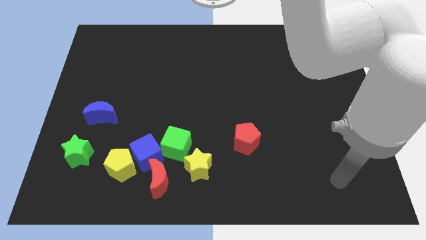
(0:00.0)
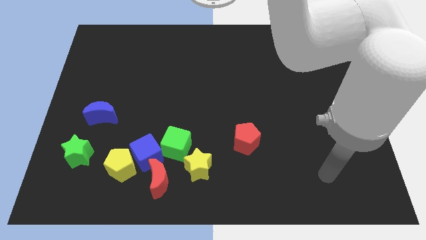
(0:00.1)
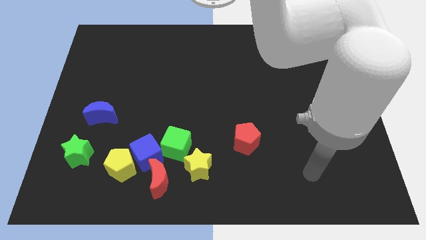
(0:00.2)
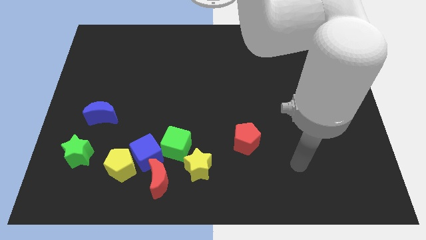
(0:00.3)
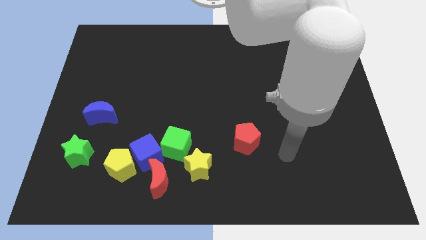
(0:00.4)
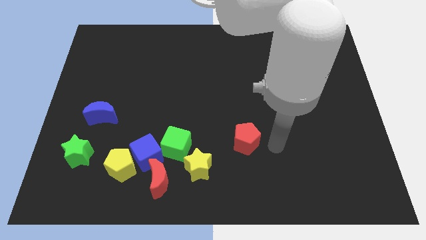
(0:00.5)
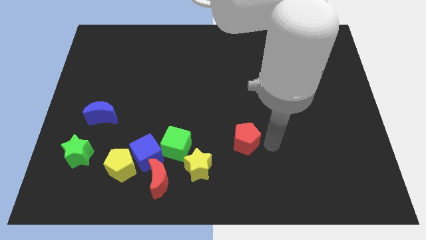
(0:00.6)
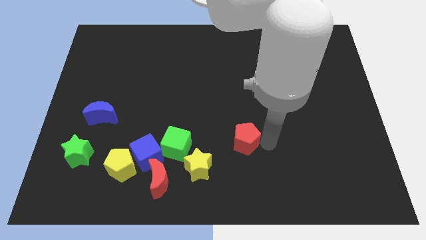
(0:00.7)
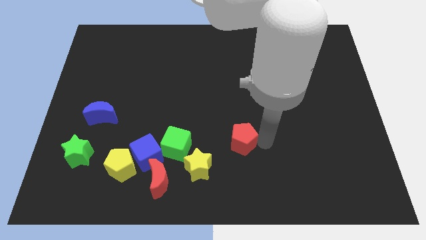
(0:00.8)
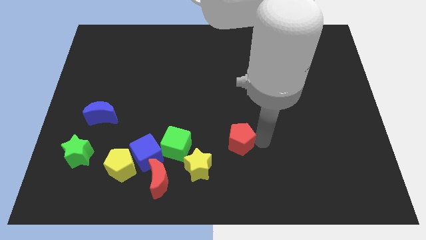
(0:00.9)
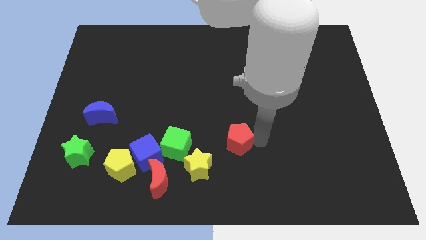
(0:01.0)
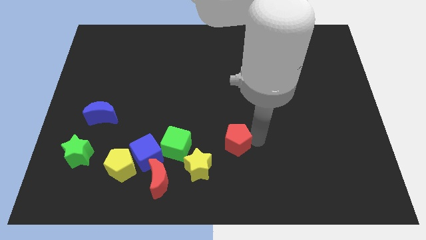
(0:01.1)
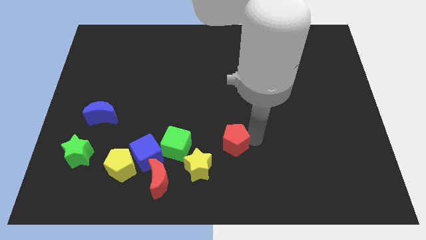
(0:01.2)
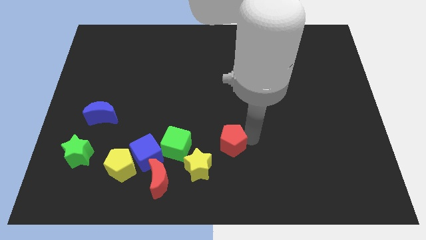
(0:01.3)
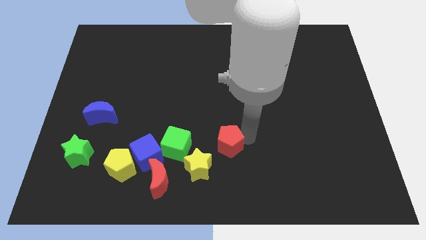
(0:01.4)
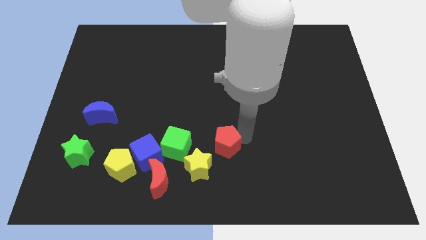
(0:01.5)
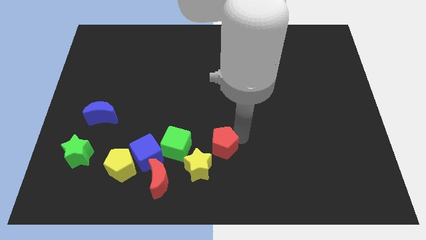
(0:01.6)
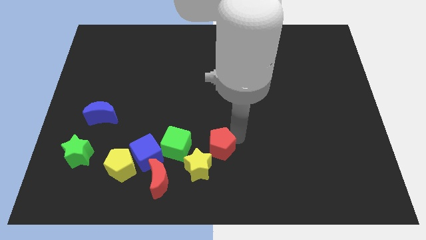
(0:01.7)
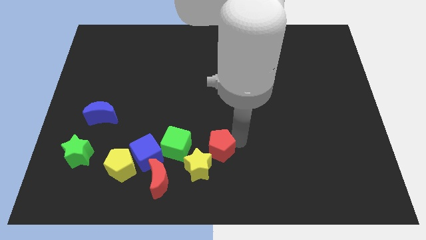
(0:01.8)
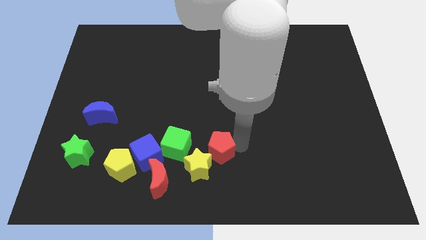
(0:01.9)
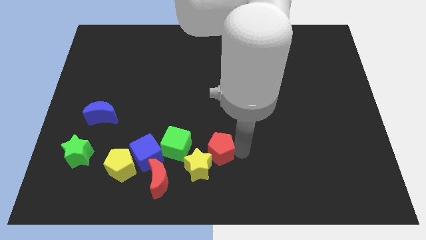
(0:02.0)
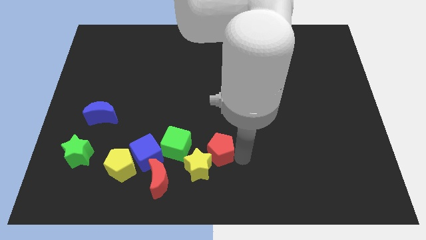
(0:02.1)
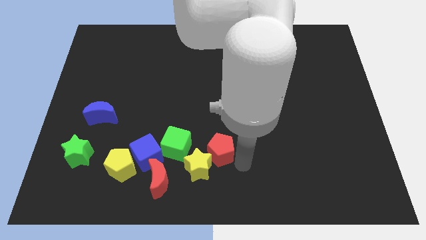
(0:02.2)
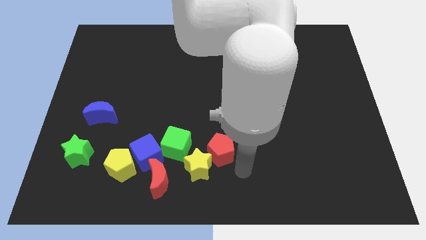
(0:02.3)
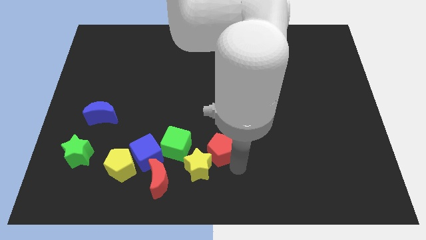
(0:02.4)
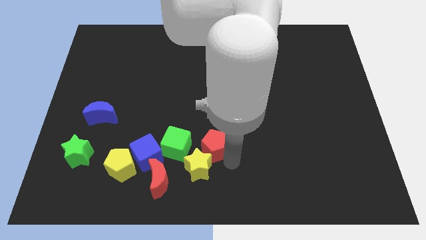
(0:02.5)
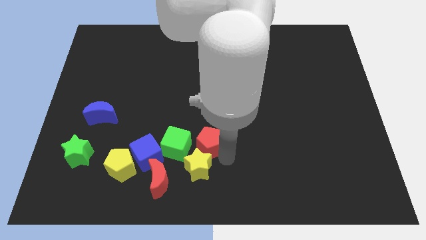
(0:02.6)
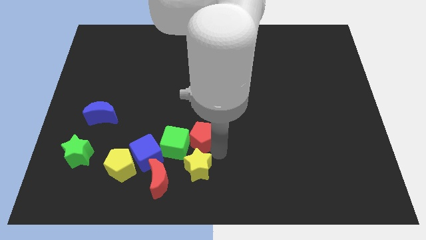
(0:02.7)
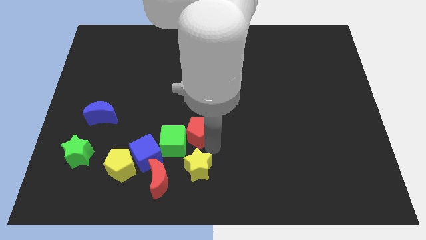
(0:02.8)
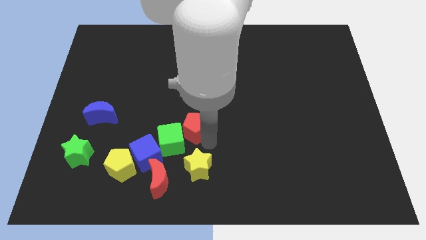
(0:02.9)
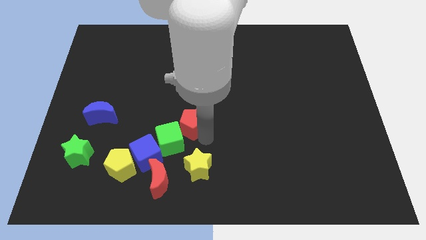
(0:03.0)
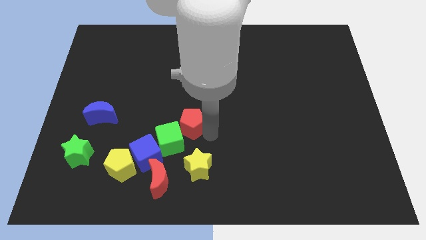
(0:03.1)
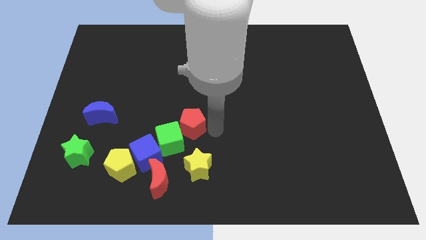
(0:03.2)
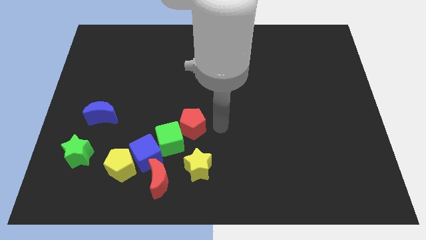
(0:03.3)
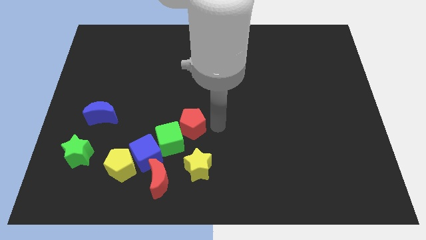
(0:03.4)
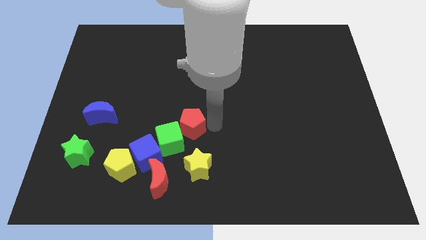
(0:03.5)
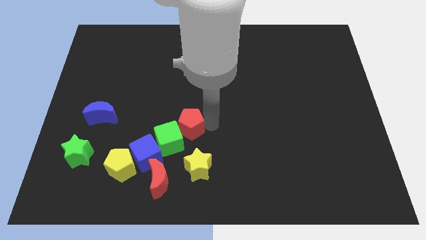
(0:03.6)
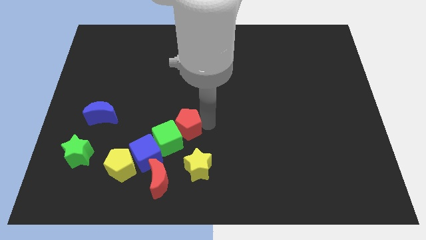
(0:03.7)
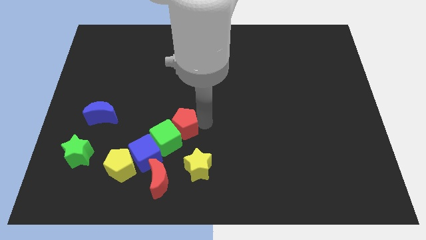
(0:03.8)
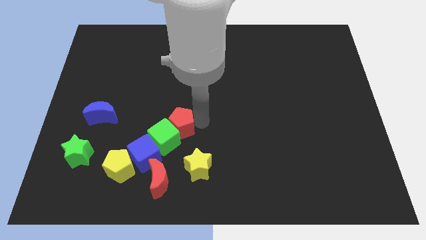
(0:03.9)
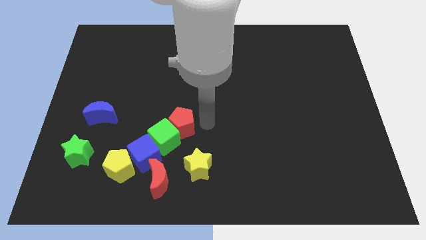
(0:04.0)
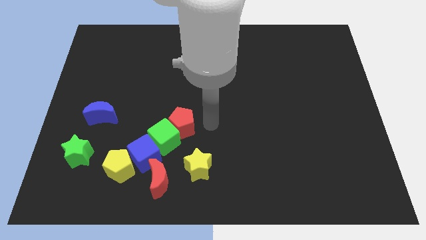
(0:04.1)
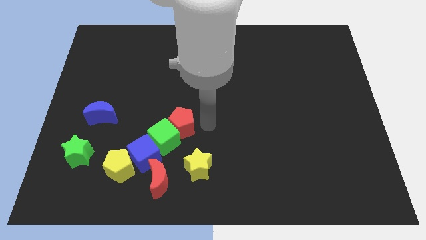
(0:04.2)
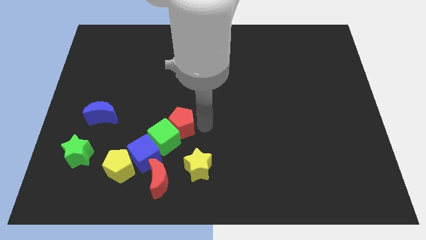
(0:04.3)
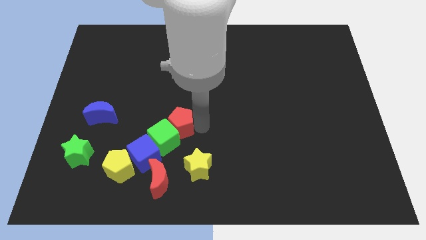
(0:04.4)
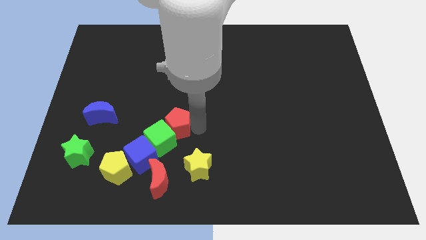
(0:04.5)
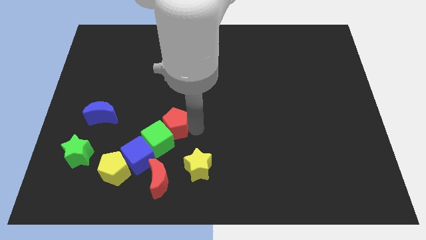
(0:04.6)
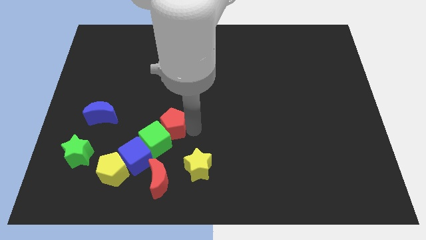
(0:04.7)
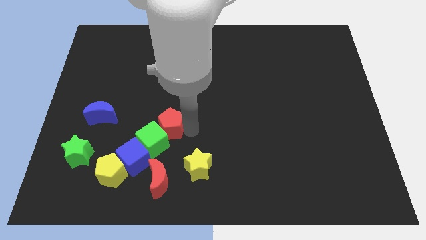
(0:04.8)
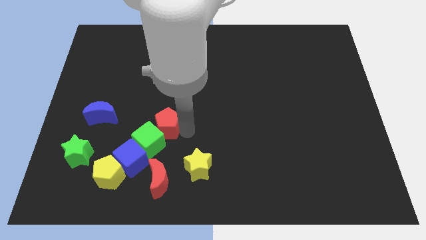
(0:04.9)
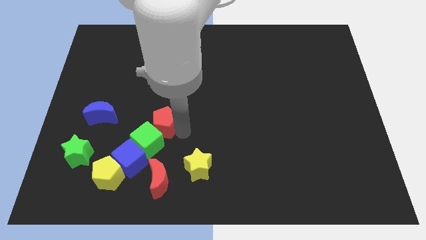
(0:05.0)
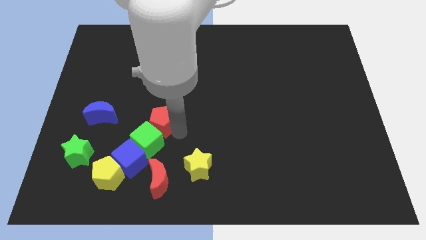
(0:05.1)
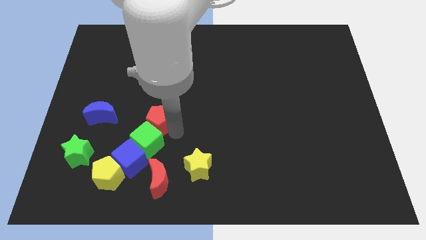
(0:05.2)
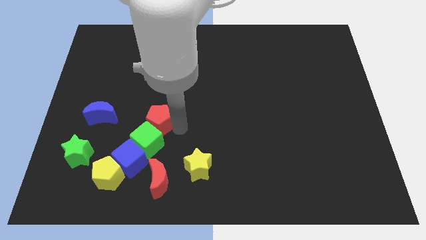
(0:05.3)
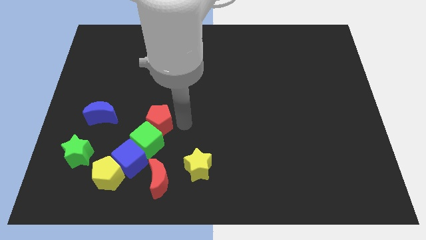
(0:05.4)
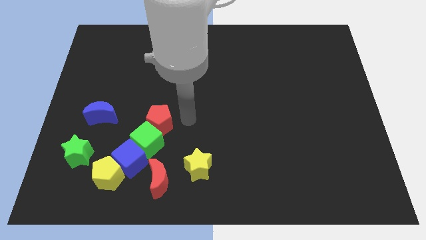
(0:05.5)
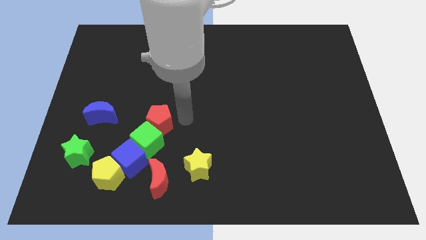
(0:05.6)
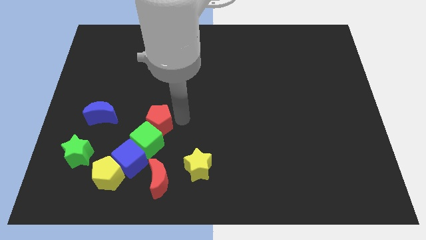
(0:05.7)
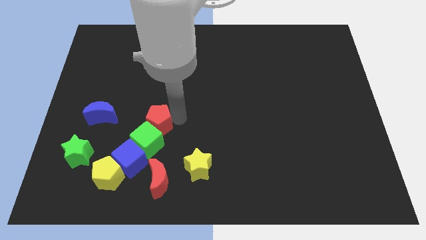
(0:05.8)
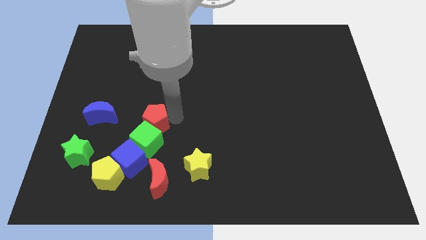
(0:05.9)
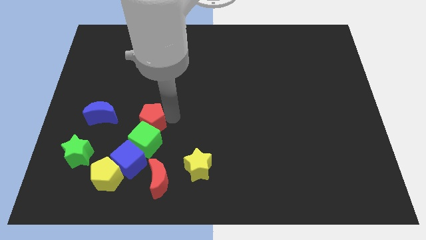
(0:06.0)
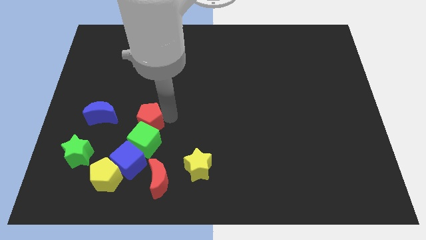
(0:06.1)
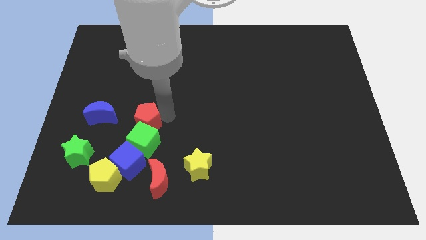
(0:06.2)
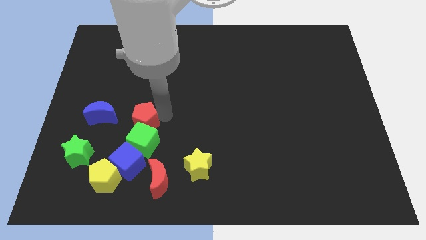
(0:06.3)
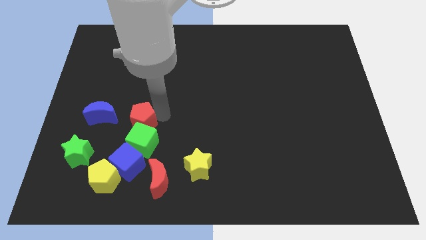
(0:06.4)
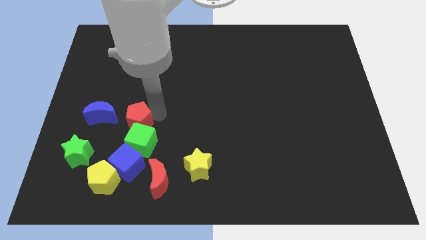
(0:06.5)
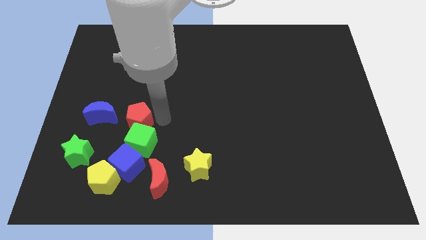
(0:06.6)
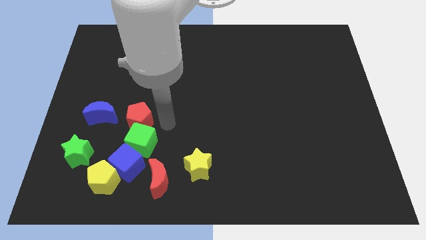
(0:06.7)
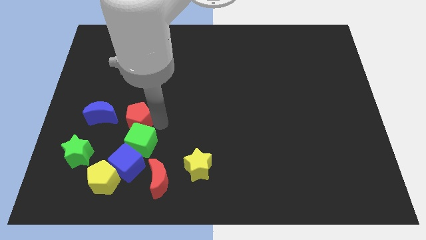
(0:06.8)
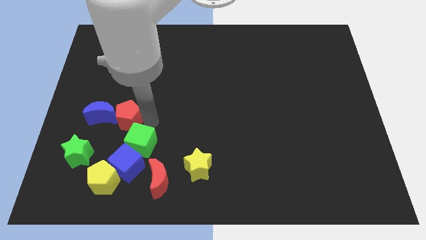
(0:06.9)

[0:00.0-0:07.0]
slide the red pentagon to the blue moon

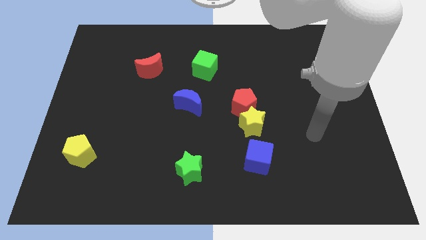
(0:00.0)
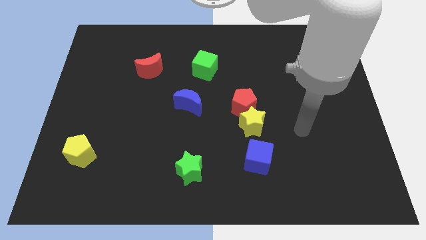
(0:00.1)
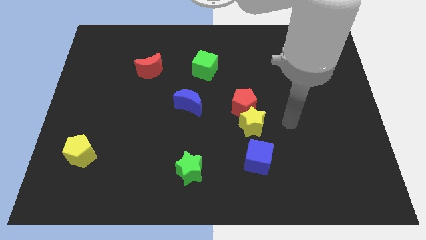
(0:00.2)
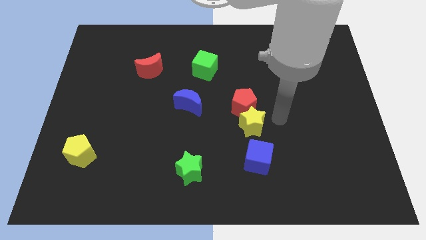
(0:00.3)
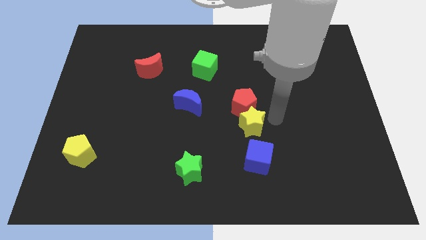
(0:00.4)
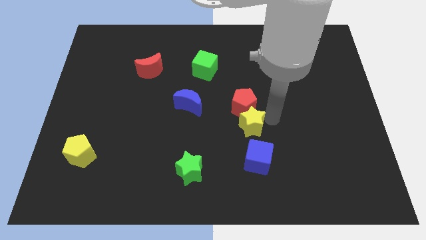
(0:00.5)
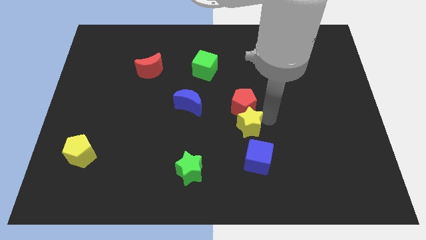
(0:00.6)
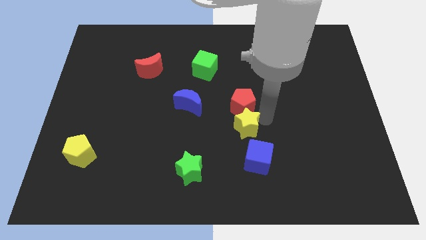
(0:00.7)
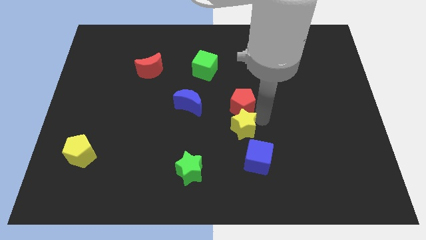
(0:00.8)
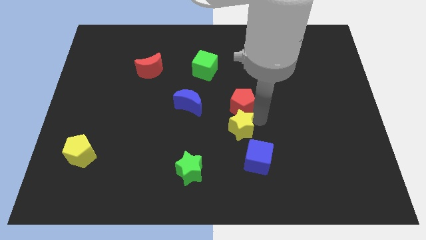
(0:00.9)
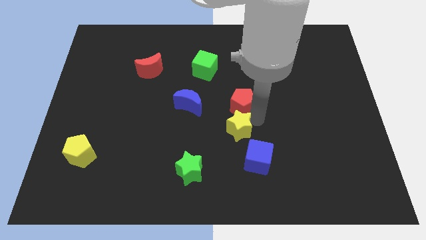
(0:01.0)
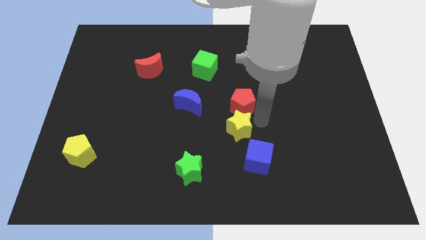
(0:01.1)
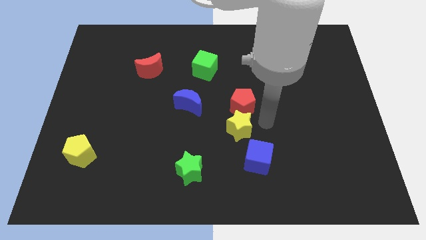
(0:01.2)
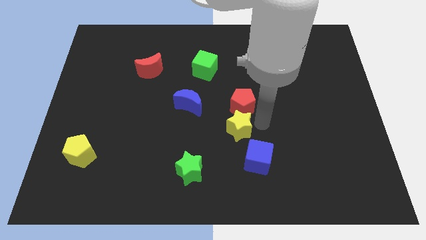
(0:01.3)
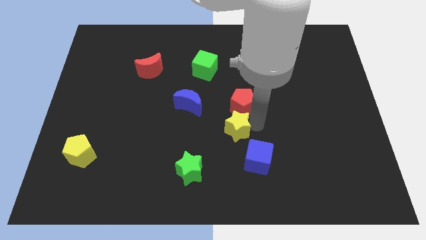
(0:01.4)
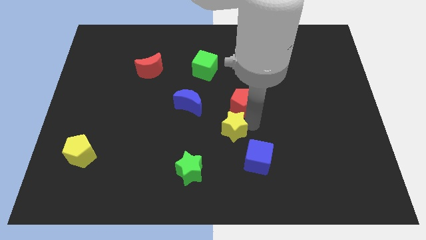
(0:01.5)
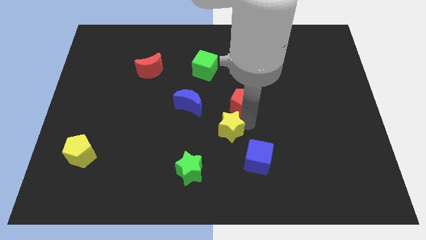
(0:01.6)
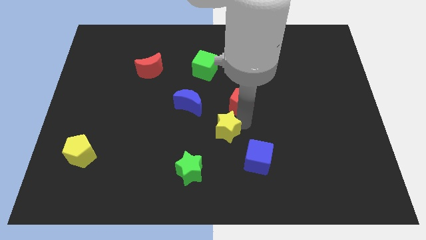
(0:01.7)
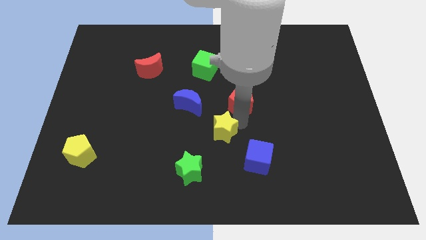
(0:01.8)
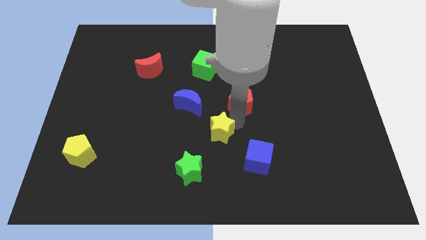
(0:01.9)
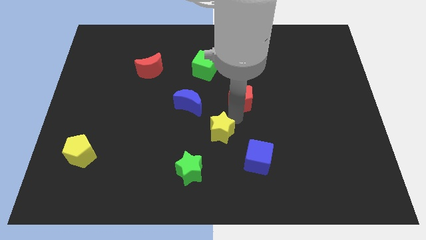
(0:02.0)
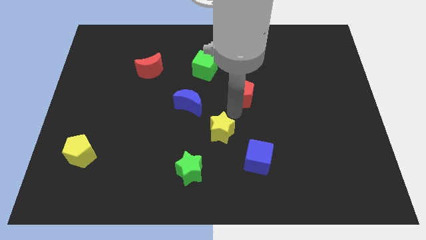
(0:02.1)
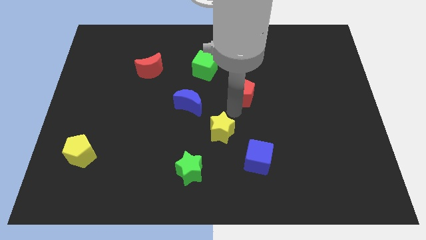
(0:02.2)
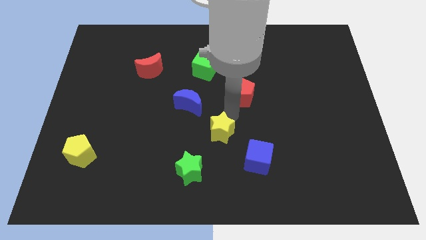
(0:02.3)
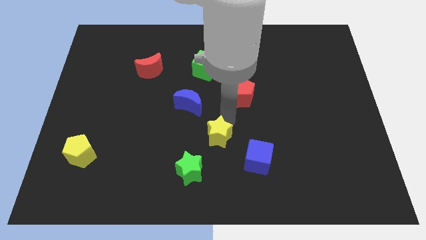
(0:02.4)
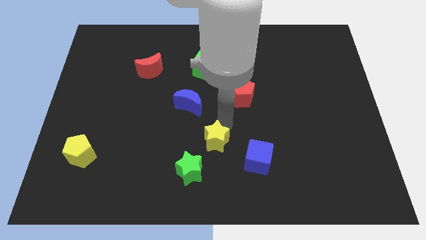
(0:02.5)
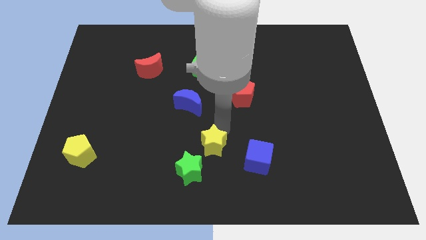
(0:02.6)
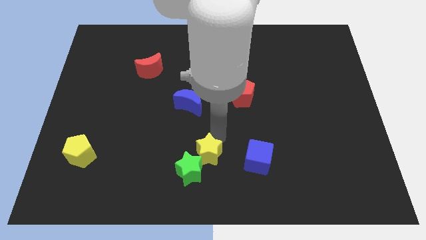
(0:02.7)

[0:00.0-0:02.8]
push the yellow star towards the green star
